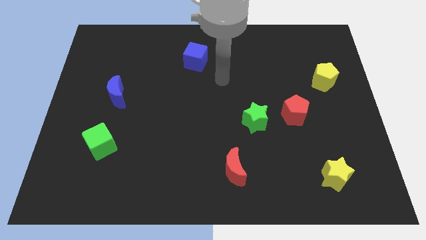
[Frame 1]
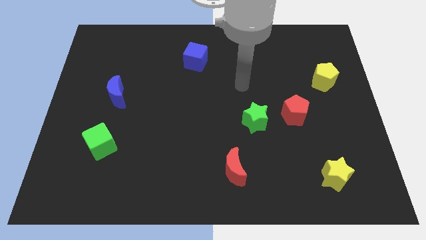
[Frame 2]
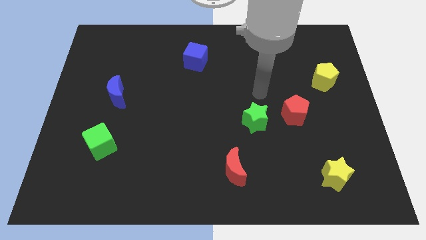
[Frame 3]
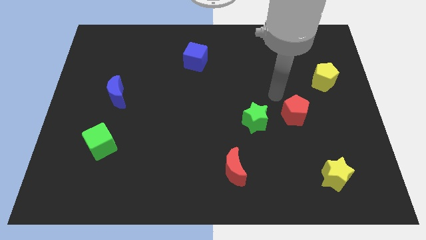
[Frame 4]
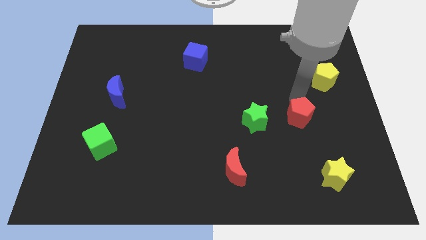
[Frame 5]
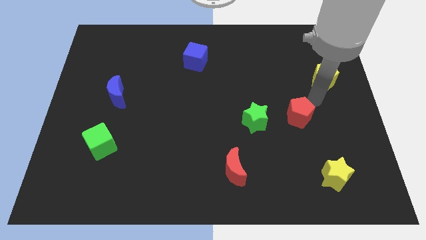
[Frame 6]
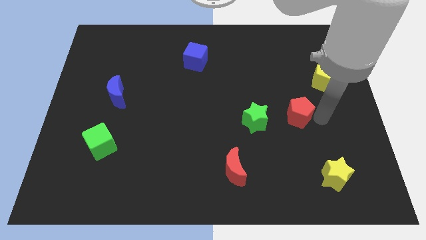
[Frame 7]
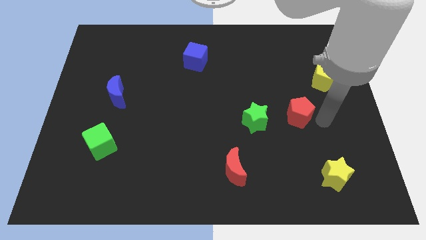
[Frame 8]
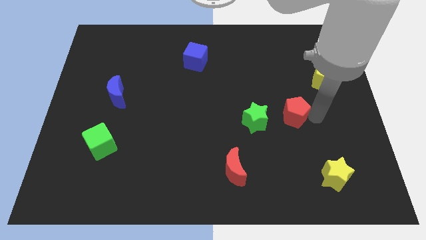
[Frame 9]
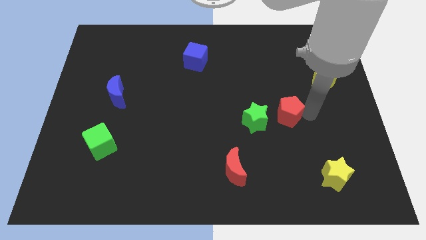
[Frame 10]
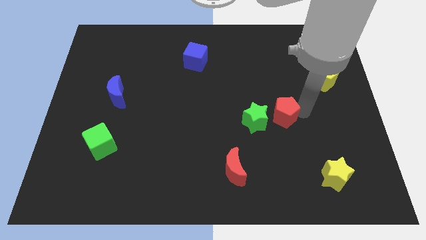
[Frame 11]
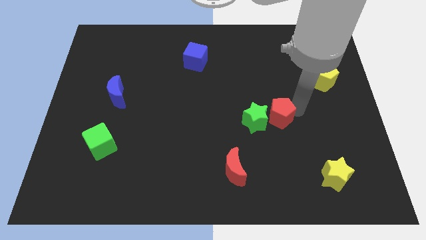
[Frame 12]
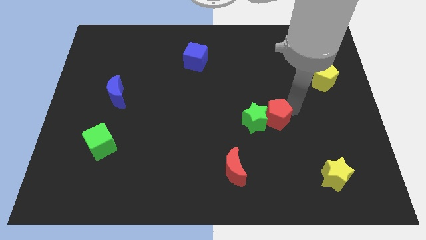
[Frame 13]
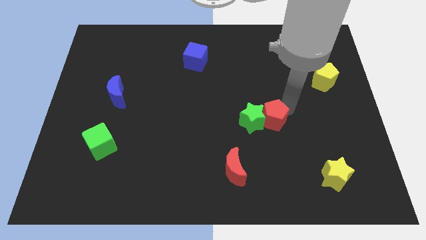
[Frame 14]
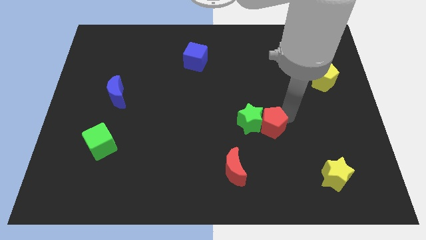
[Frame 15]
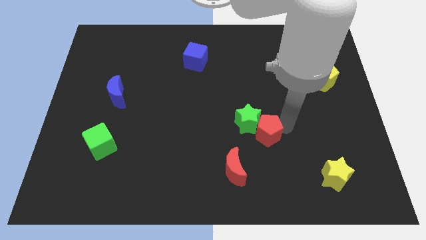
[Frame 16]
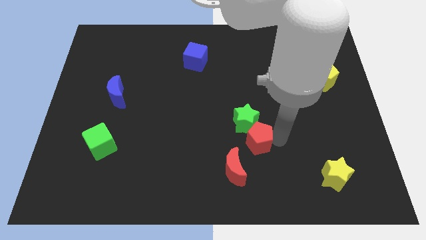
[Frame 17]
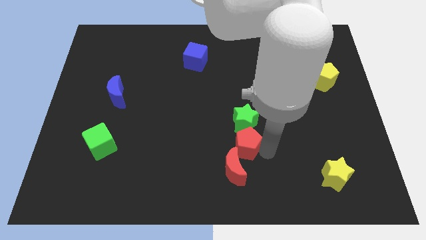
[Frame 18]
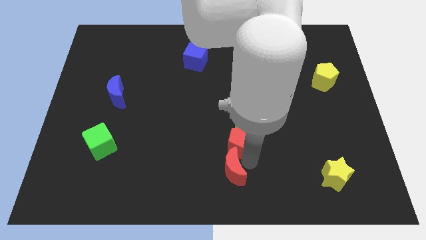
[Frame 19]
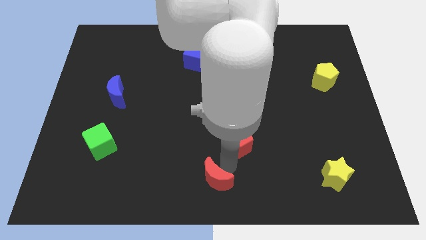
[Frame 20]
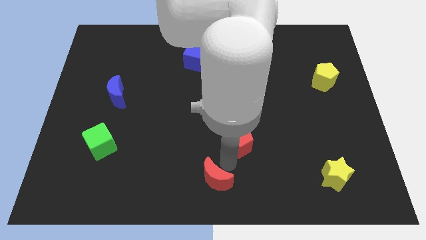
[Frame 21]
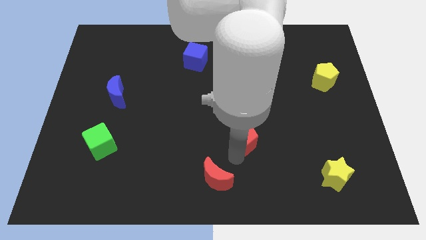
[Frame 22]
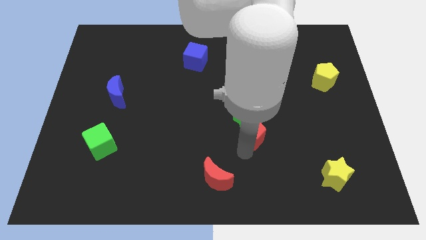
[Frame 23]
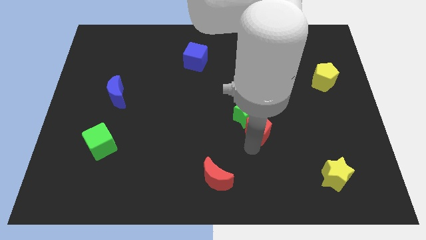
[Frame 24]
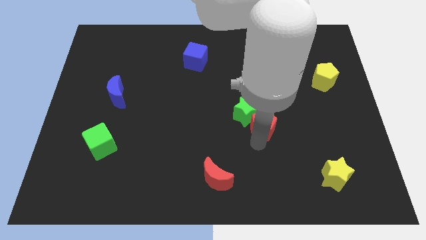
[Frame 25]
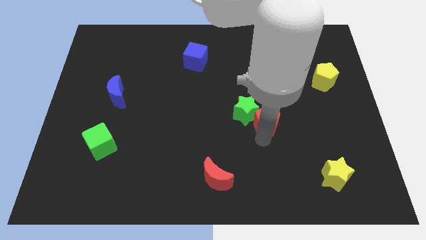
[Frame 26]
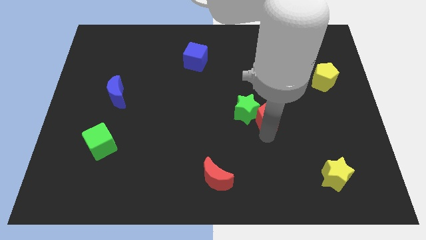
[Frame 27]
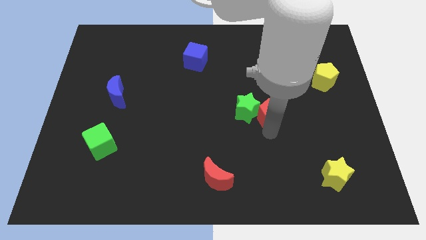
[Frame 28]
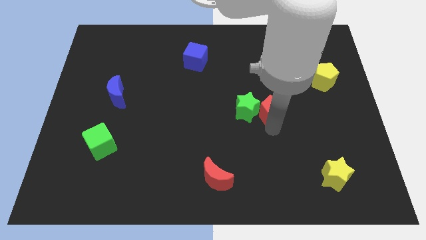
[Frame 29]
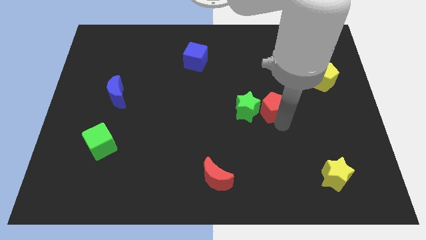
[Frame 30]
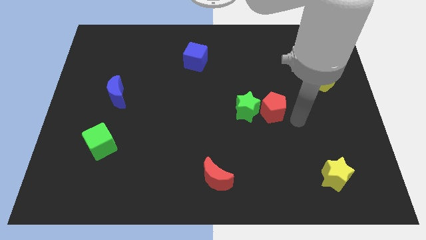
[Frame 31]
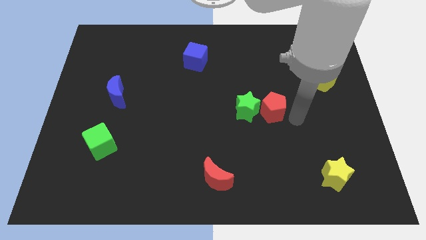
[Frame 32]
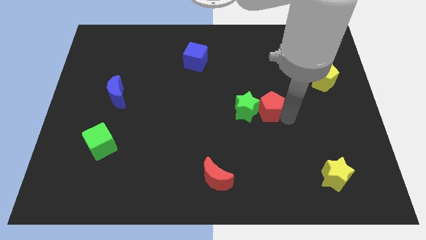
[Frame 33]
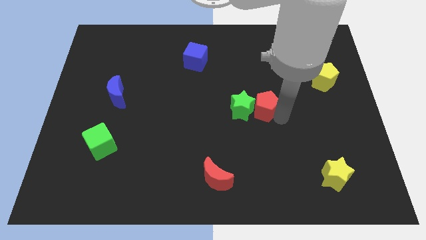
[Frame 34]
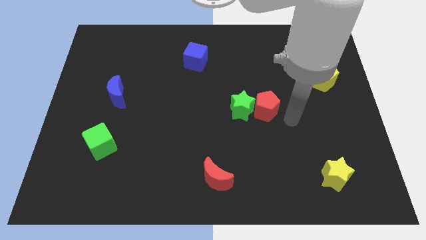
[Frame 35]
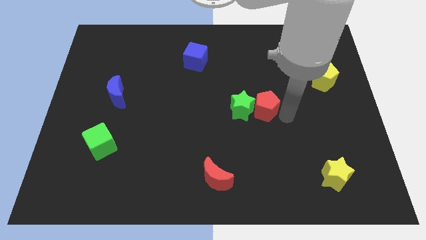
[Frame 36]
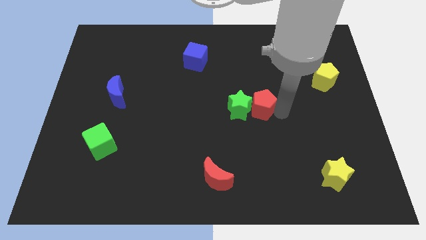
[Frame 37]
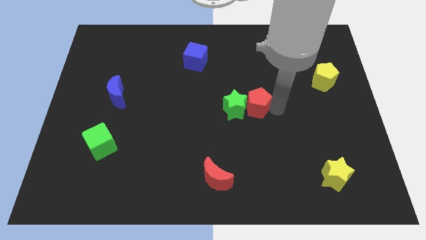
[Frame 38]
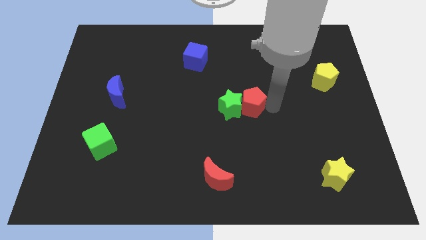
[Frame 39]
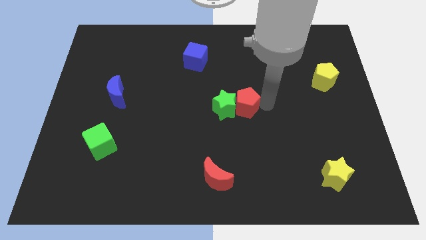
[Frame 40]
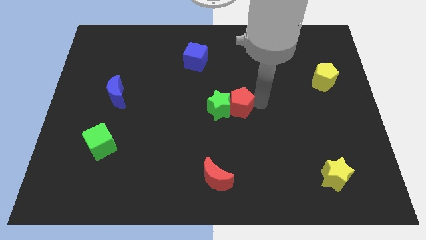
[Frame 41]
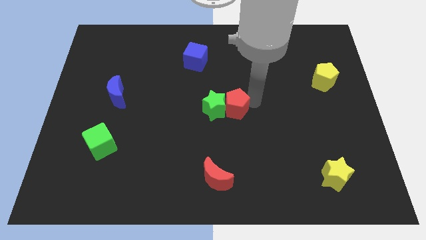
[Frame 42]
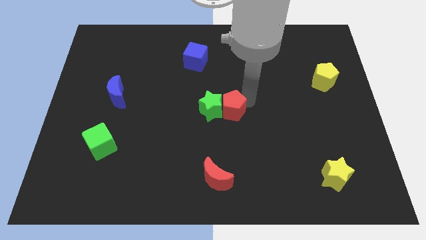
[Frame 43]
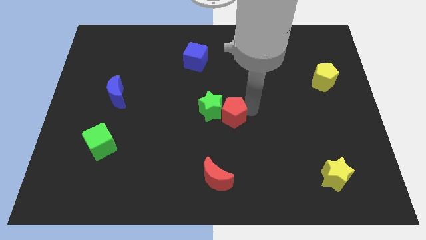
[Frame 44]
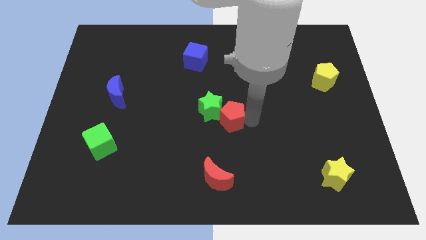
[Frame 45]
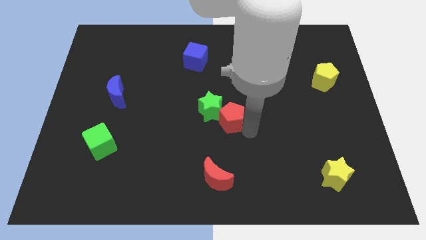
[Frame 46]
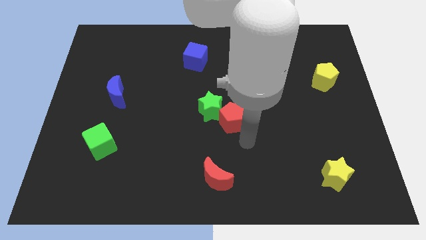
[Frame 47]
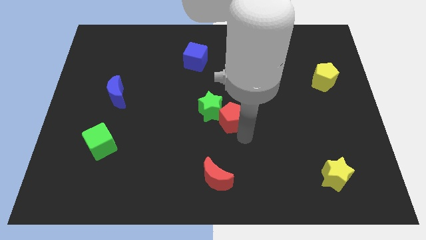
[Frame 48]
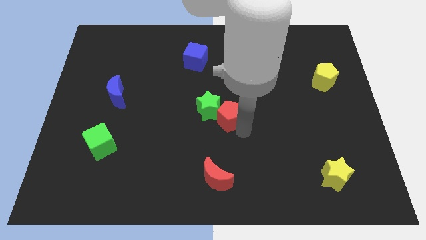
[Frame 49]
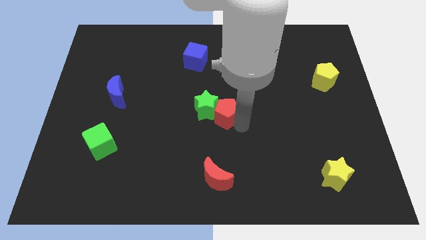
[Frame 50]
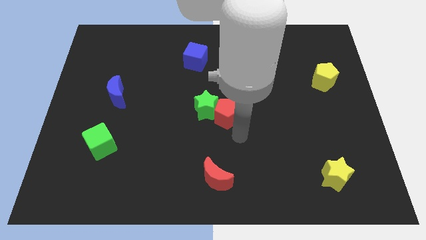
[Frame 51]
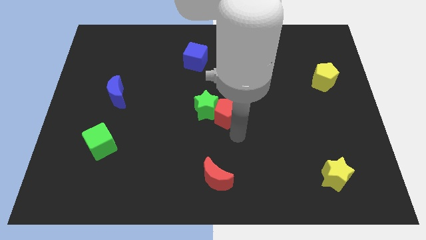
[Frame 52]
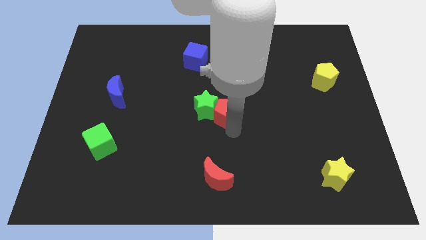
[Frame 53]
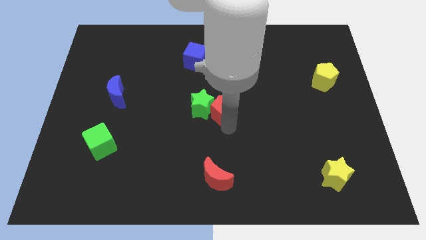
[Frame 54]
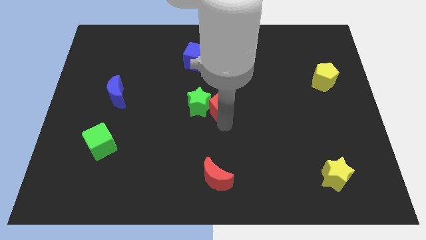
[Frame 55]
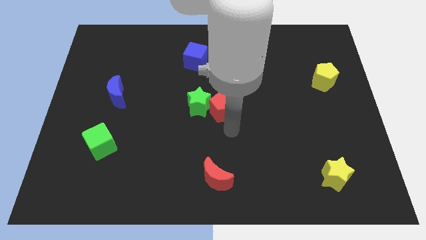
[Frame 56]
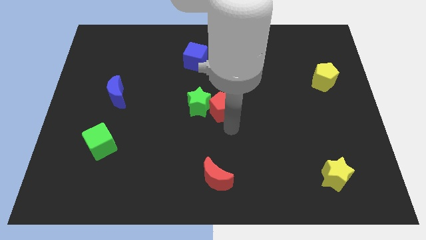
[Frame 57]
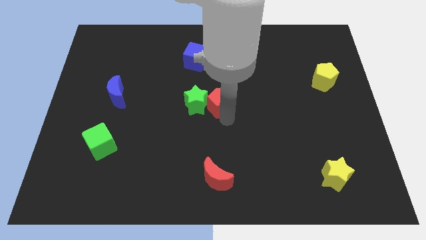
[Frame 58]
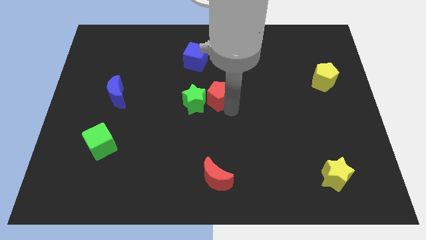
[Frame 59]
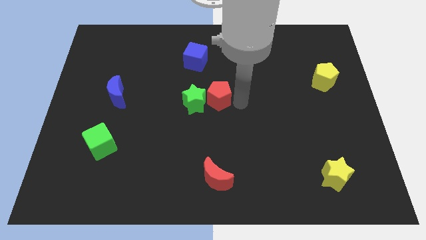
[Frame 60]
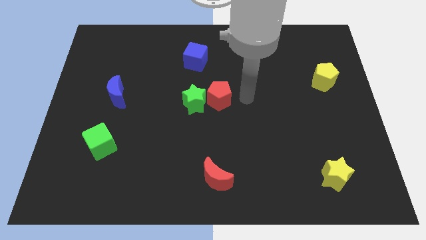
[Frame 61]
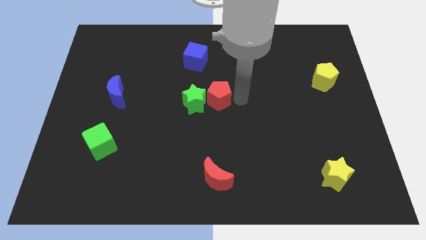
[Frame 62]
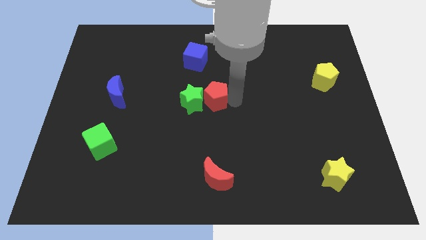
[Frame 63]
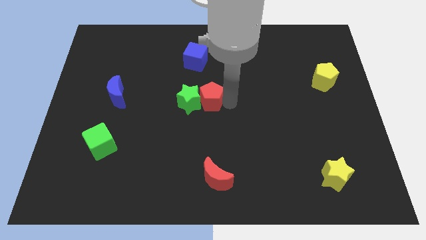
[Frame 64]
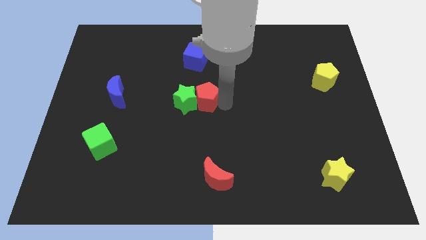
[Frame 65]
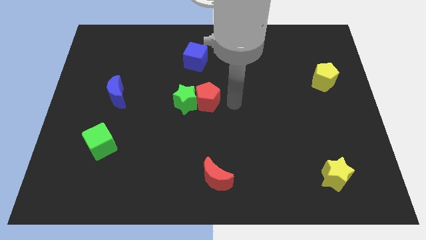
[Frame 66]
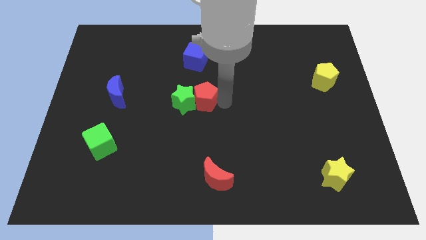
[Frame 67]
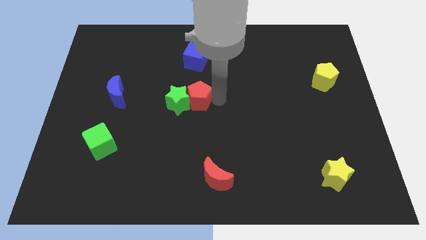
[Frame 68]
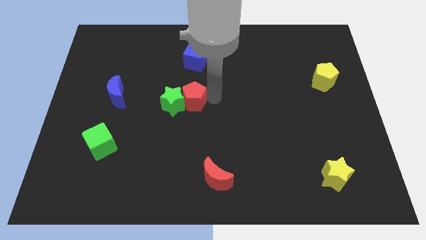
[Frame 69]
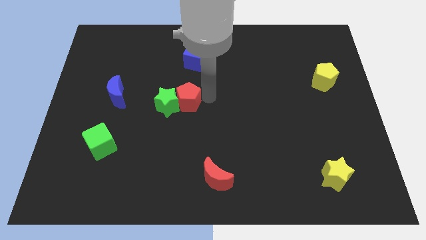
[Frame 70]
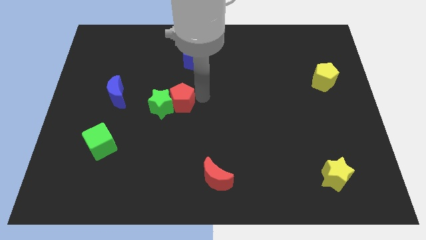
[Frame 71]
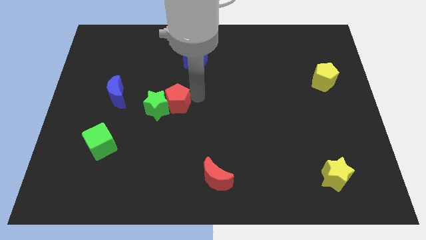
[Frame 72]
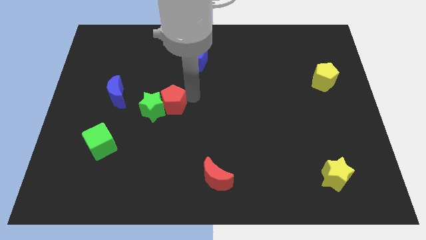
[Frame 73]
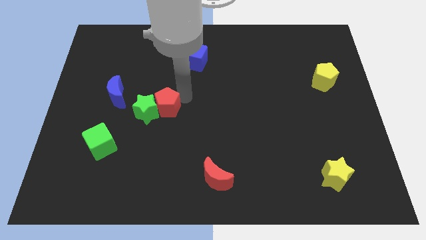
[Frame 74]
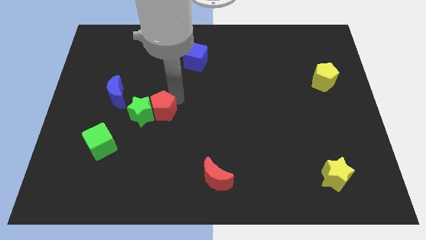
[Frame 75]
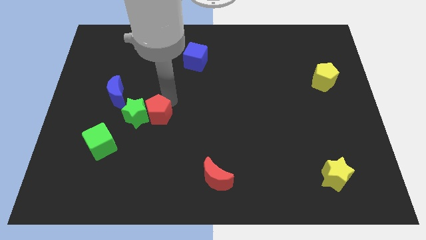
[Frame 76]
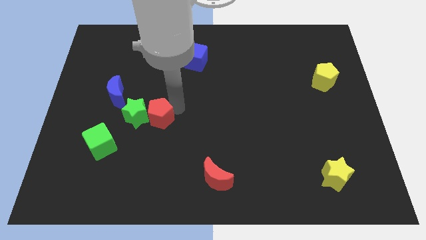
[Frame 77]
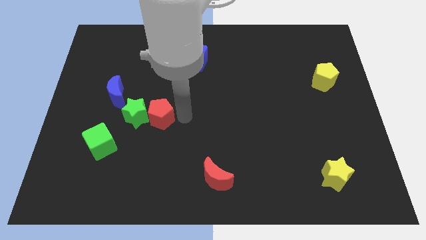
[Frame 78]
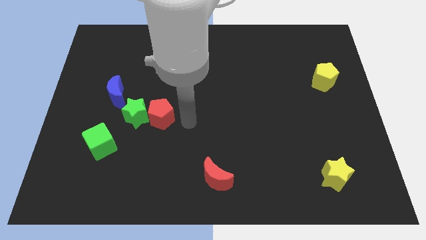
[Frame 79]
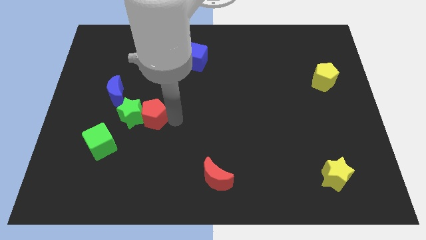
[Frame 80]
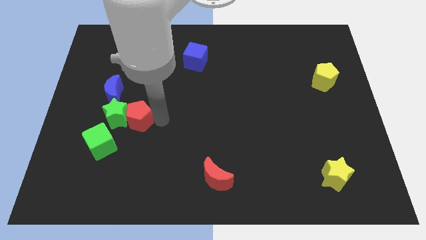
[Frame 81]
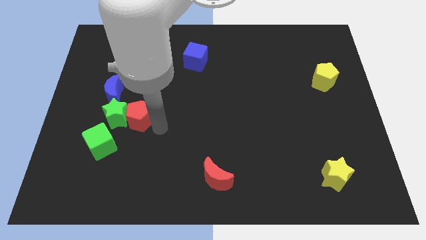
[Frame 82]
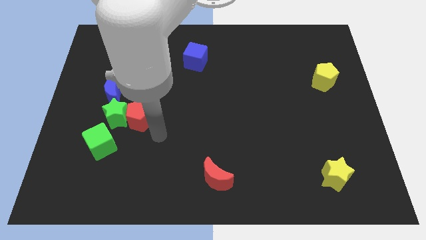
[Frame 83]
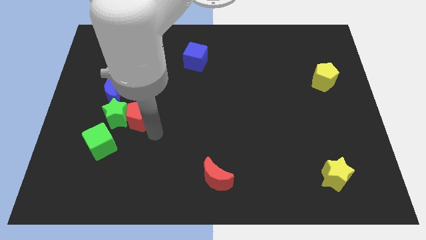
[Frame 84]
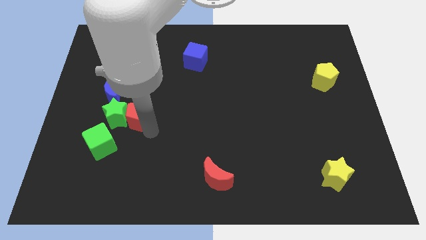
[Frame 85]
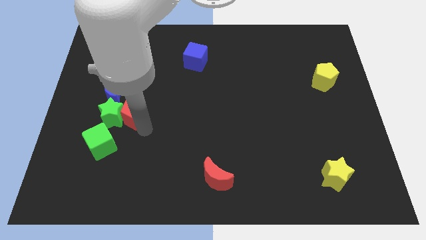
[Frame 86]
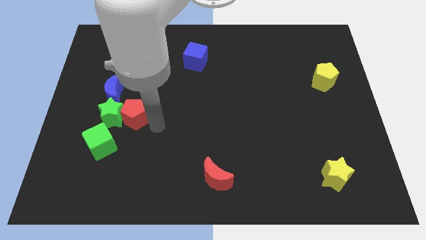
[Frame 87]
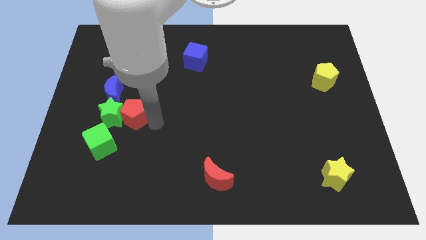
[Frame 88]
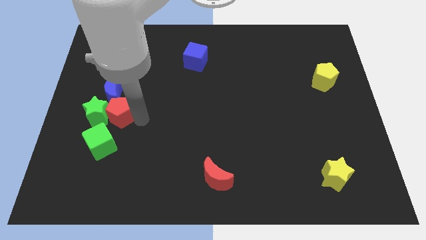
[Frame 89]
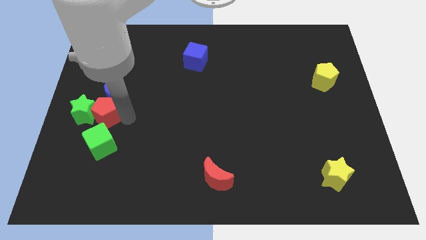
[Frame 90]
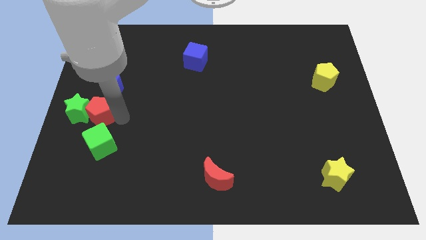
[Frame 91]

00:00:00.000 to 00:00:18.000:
slide the red pentagon to the left side
